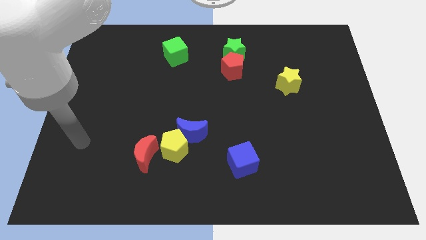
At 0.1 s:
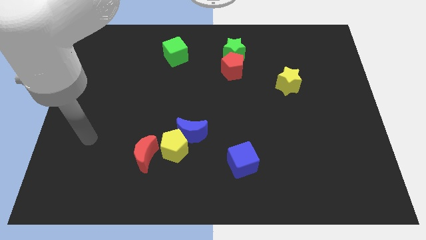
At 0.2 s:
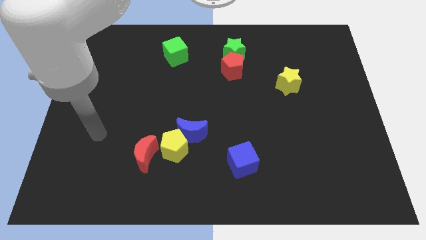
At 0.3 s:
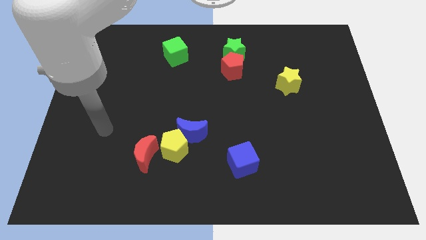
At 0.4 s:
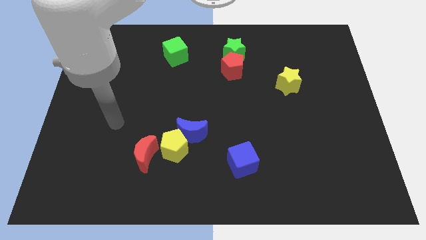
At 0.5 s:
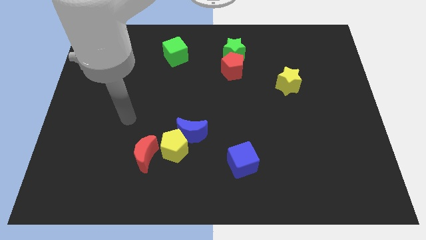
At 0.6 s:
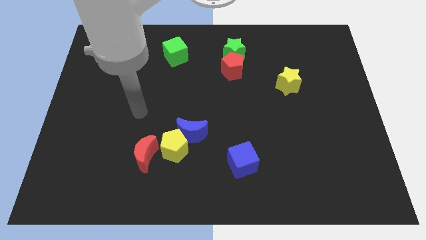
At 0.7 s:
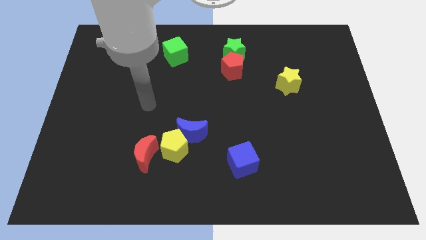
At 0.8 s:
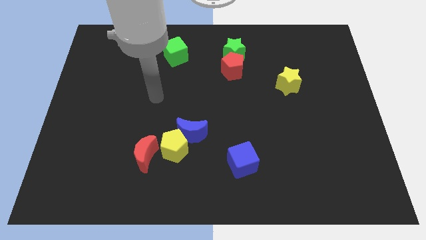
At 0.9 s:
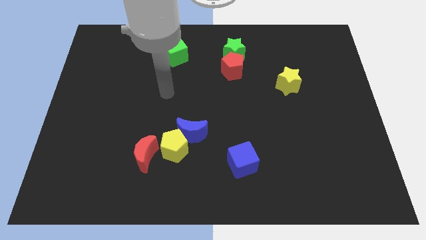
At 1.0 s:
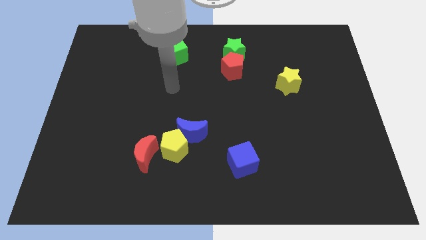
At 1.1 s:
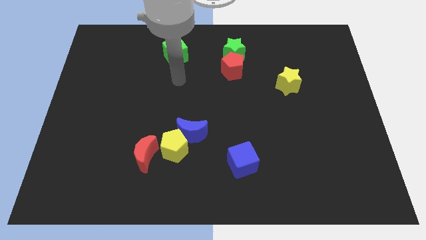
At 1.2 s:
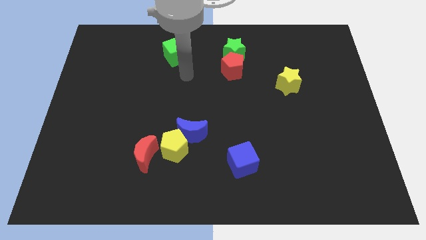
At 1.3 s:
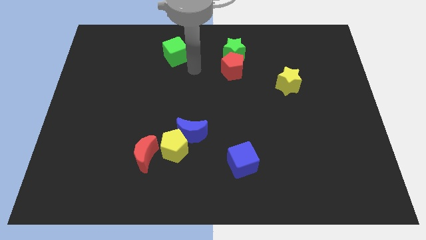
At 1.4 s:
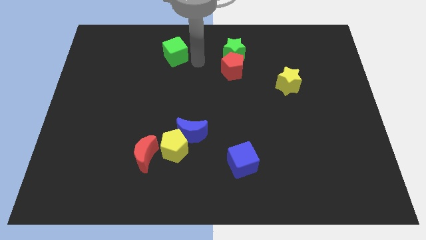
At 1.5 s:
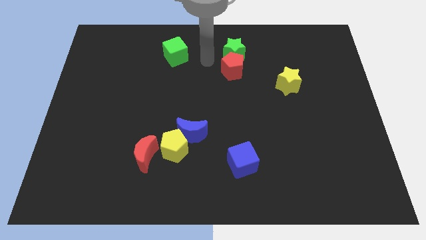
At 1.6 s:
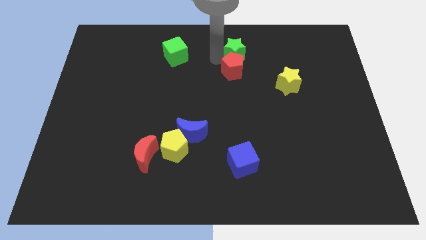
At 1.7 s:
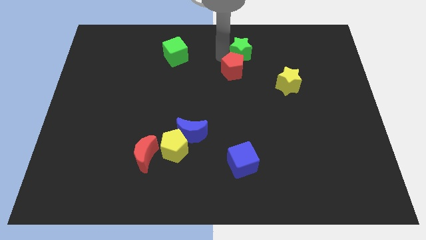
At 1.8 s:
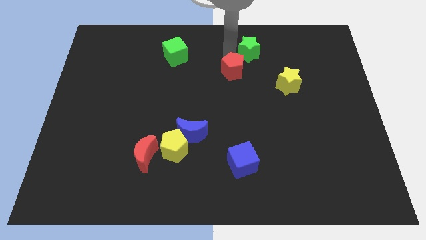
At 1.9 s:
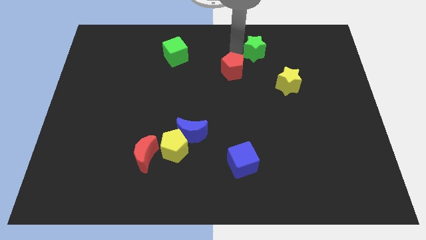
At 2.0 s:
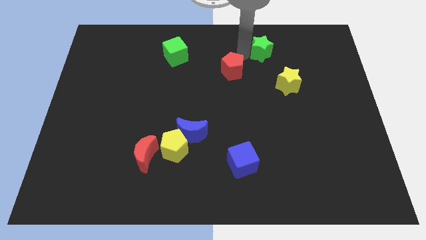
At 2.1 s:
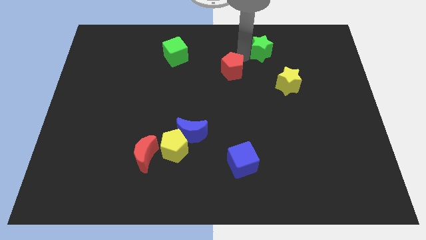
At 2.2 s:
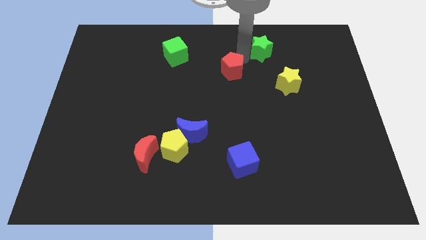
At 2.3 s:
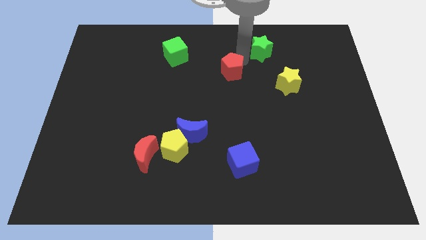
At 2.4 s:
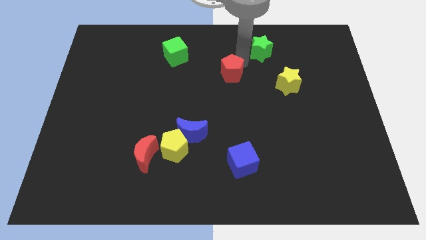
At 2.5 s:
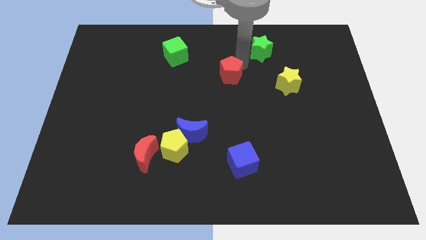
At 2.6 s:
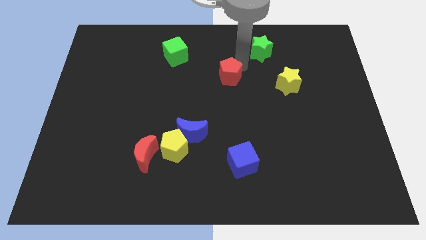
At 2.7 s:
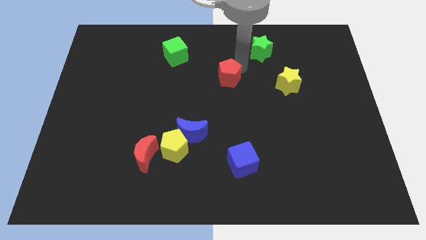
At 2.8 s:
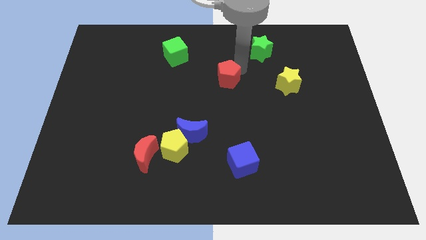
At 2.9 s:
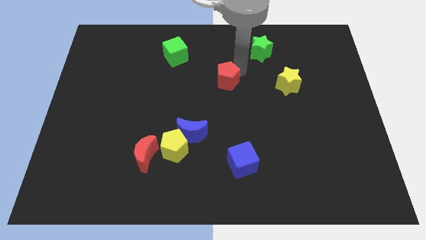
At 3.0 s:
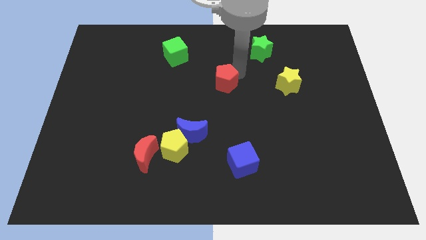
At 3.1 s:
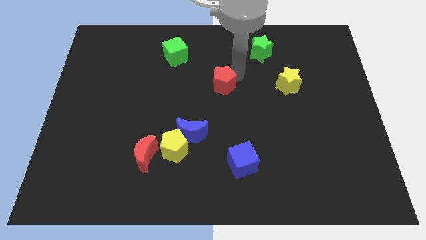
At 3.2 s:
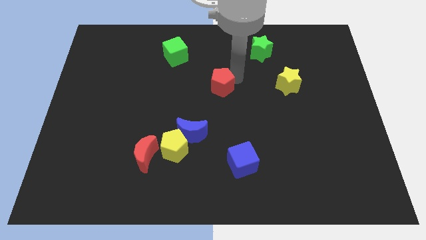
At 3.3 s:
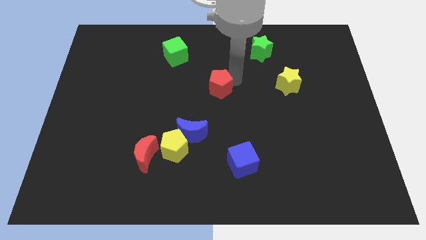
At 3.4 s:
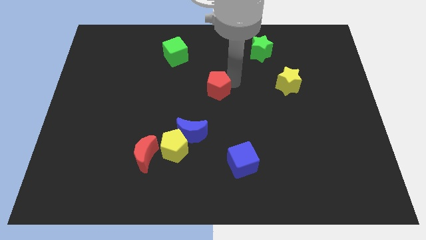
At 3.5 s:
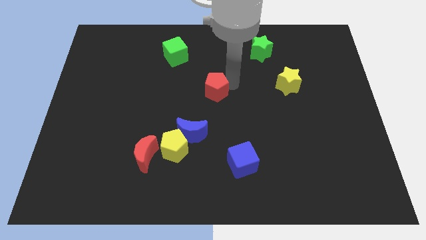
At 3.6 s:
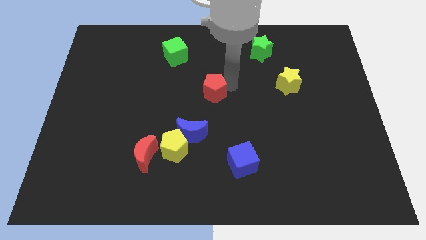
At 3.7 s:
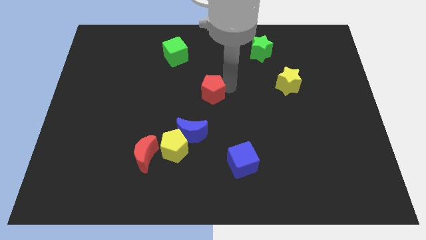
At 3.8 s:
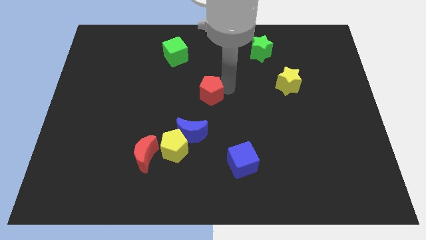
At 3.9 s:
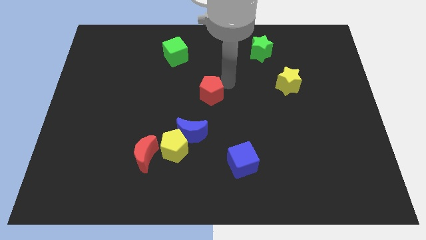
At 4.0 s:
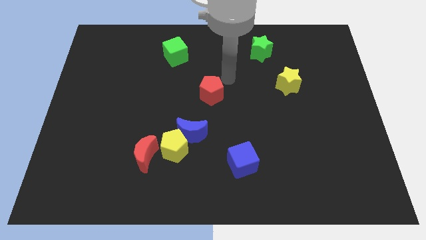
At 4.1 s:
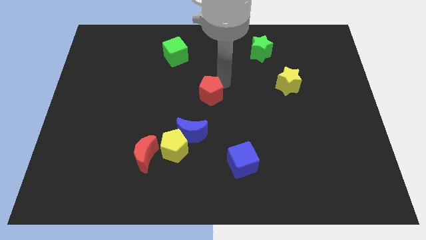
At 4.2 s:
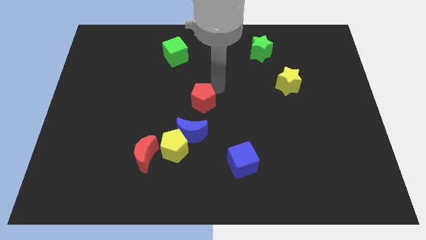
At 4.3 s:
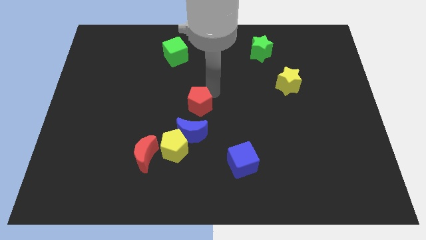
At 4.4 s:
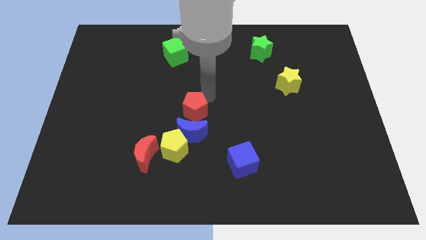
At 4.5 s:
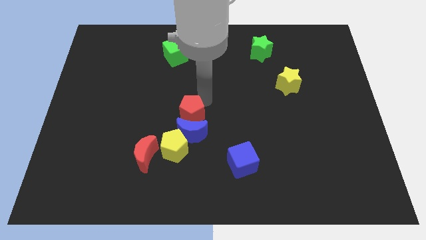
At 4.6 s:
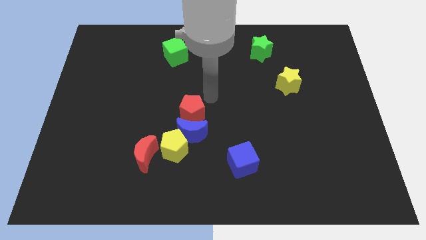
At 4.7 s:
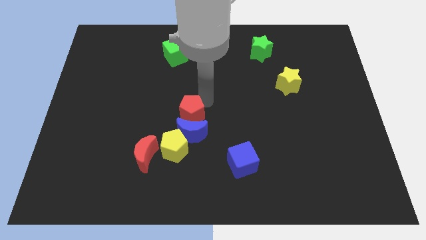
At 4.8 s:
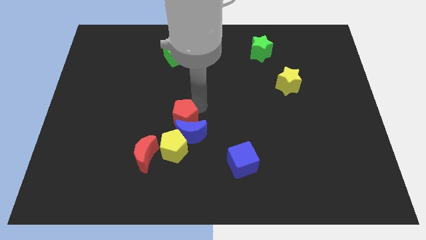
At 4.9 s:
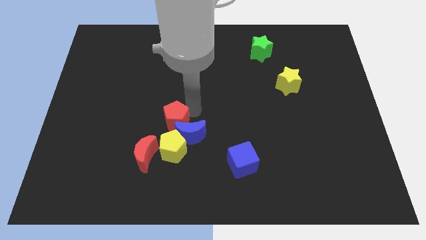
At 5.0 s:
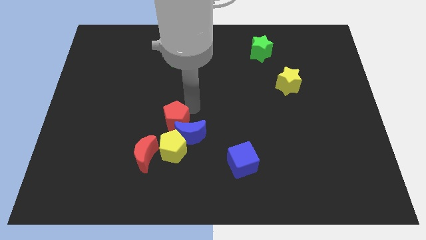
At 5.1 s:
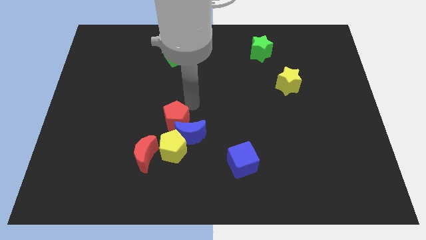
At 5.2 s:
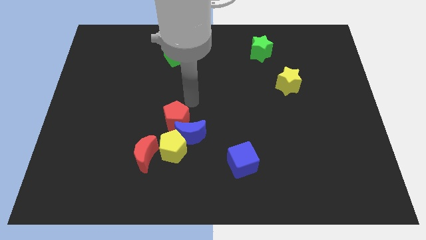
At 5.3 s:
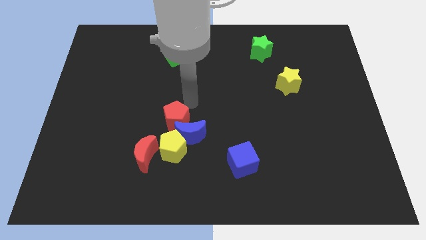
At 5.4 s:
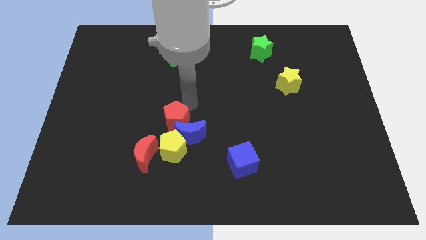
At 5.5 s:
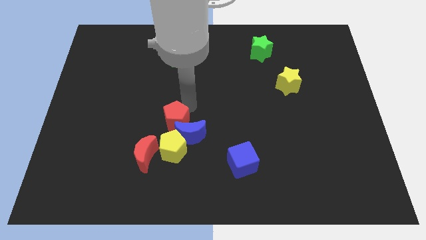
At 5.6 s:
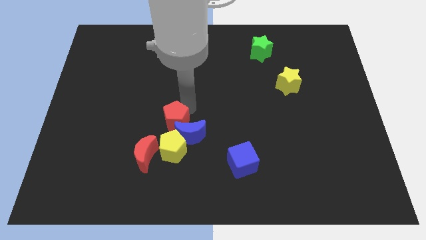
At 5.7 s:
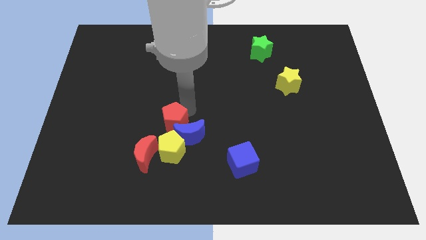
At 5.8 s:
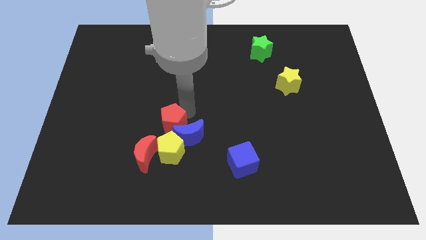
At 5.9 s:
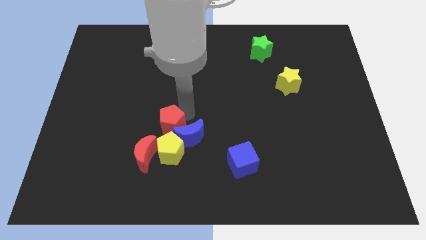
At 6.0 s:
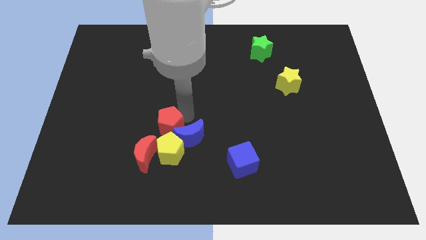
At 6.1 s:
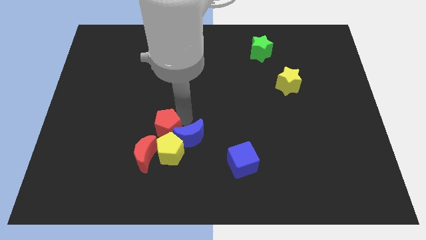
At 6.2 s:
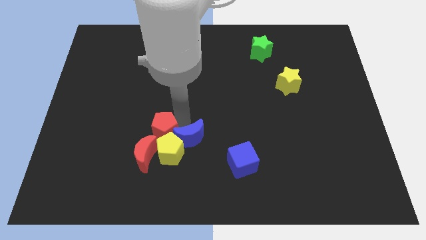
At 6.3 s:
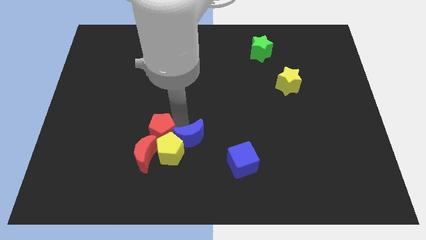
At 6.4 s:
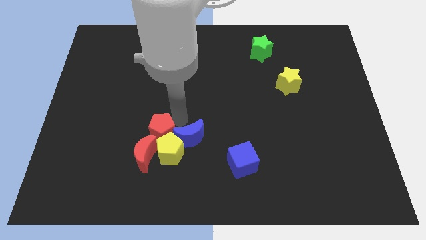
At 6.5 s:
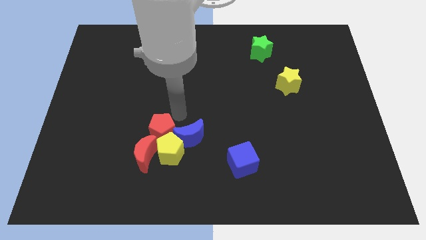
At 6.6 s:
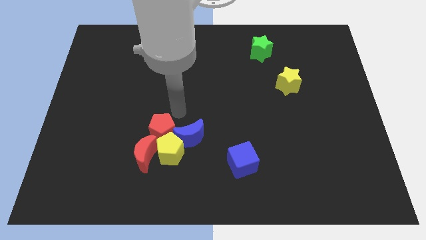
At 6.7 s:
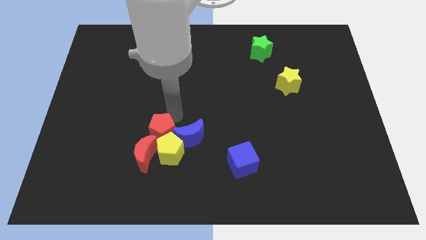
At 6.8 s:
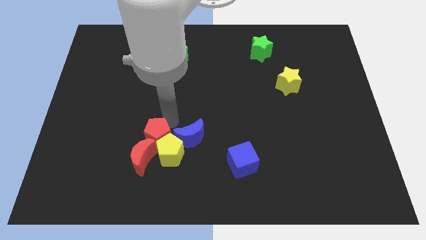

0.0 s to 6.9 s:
move the red pentagon to the red moon

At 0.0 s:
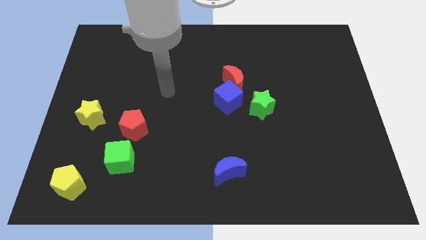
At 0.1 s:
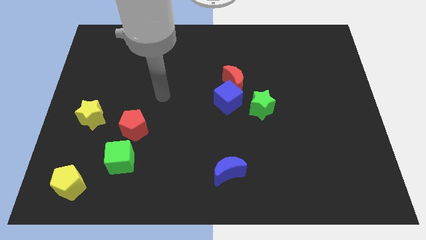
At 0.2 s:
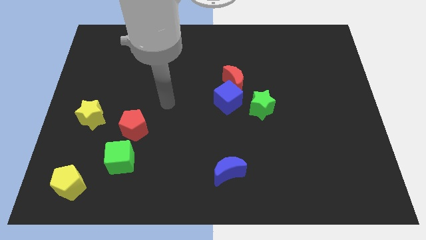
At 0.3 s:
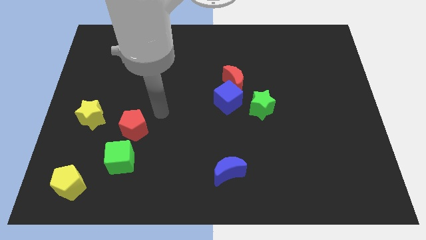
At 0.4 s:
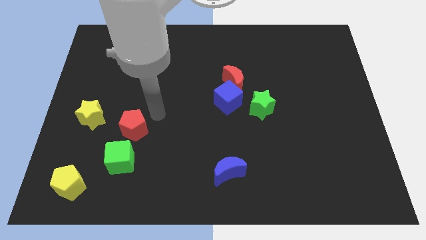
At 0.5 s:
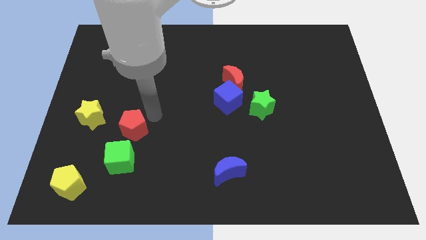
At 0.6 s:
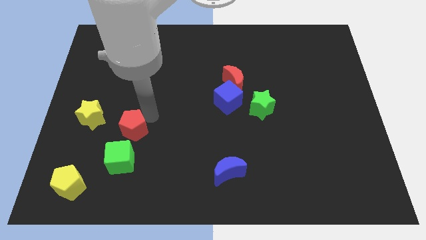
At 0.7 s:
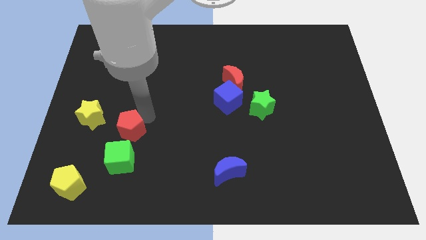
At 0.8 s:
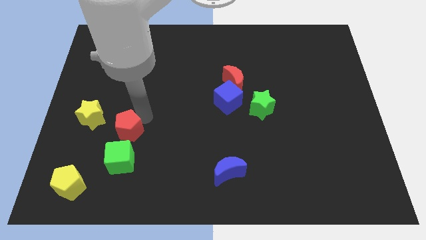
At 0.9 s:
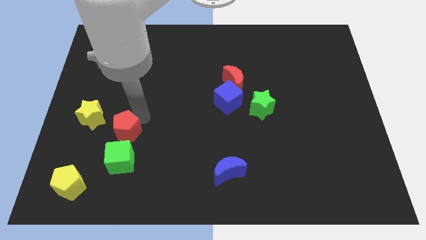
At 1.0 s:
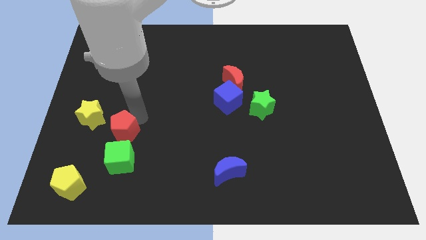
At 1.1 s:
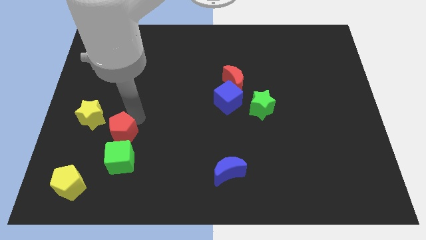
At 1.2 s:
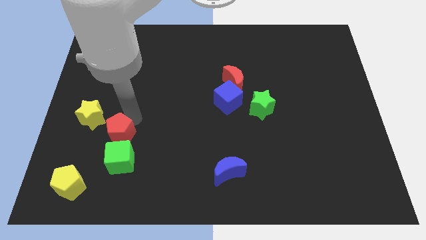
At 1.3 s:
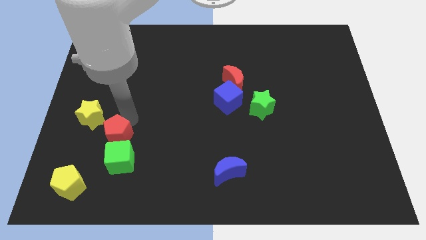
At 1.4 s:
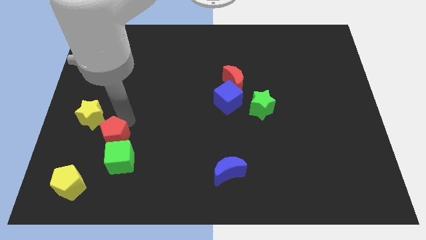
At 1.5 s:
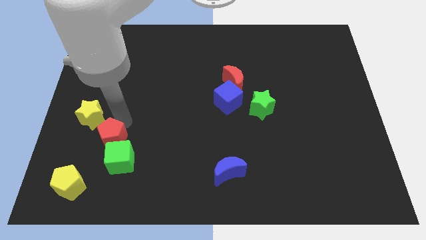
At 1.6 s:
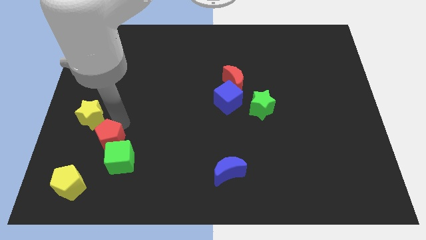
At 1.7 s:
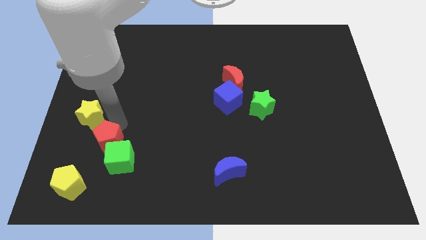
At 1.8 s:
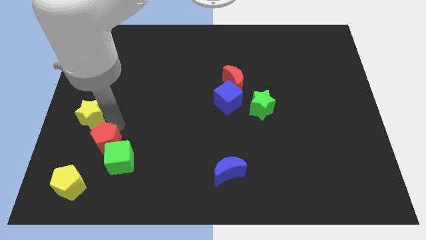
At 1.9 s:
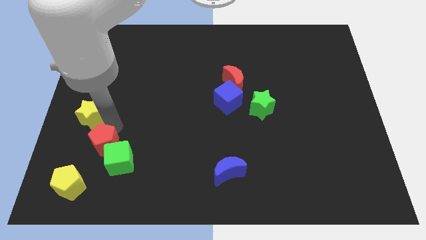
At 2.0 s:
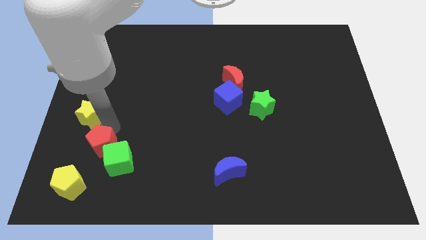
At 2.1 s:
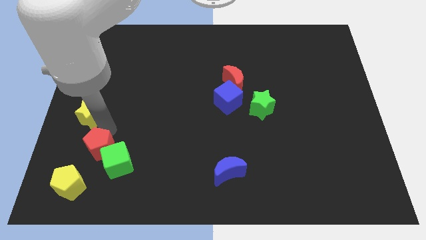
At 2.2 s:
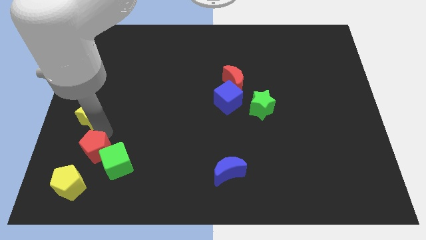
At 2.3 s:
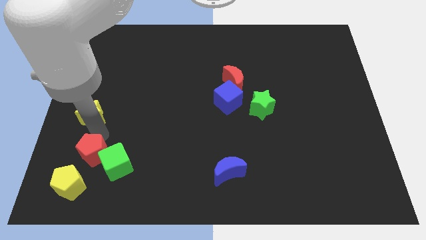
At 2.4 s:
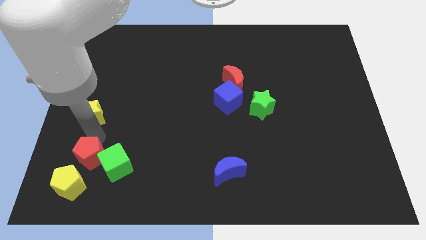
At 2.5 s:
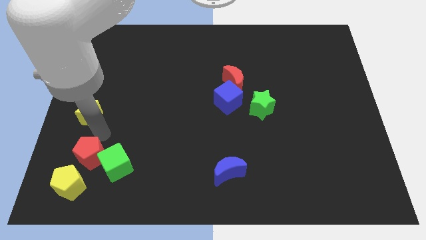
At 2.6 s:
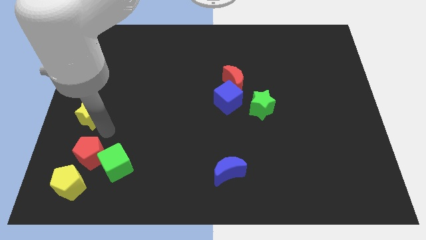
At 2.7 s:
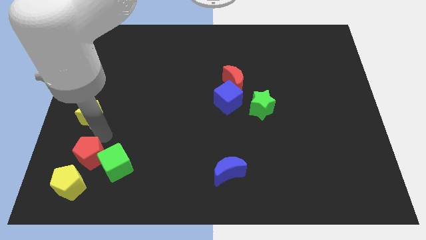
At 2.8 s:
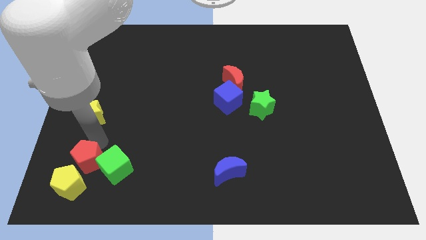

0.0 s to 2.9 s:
move the red pentagon close to the yellow pentagon
